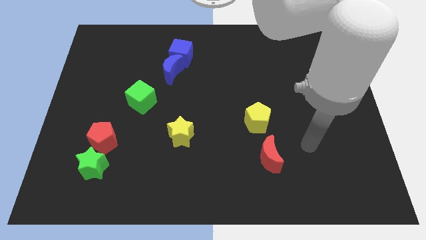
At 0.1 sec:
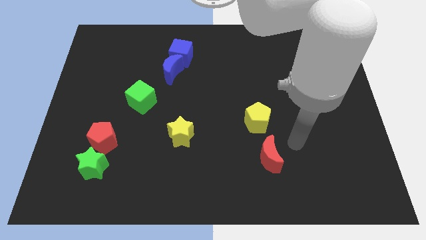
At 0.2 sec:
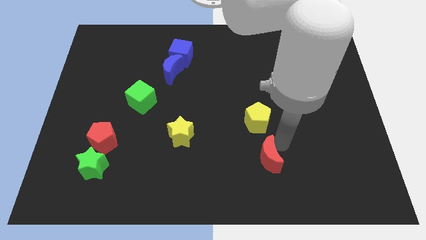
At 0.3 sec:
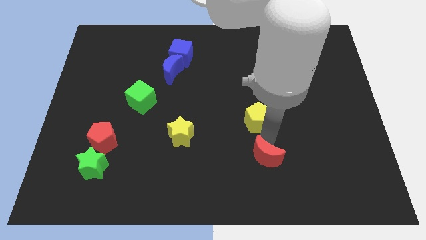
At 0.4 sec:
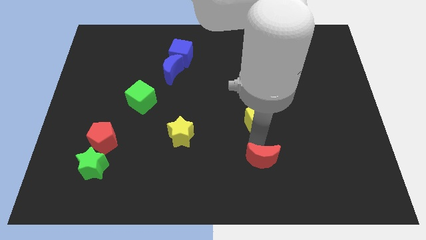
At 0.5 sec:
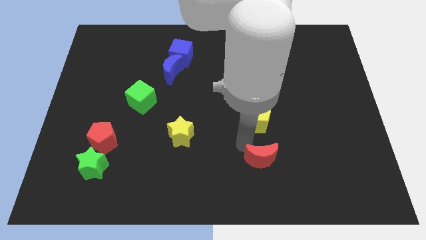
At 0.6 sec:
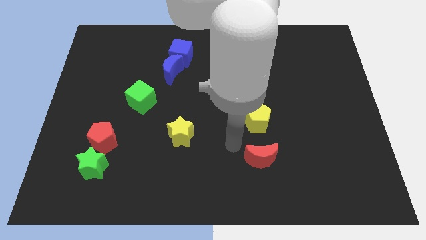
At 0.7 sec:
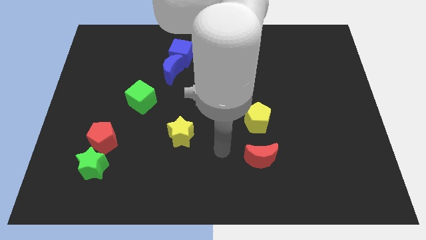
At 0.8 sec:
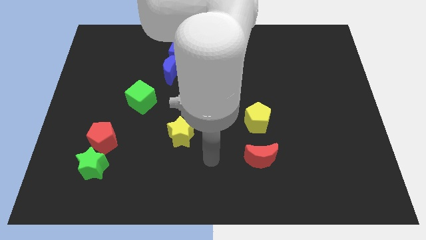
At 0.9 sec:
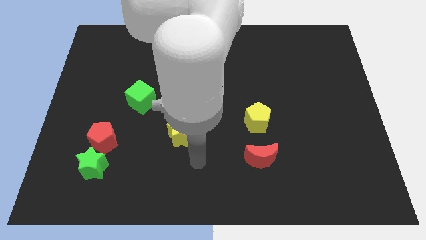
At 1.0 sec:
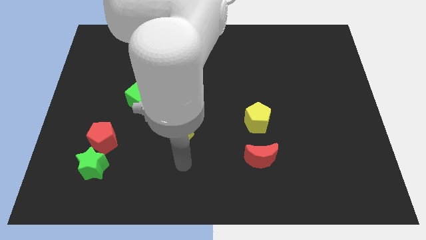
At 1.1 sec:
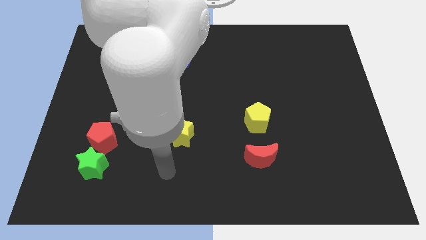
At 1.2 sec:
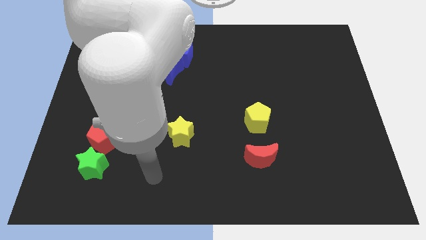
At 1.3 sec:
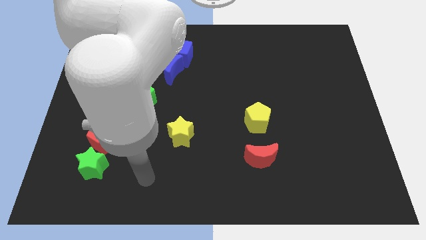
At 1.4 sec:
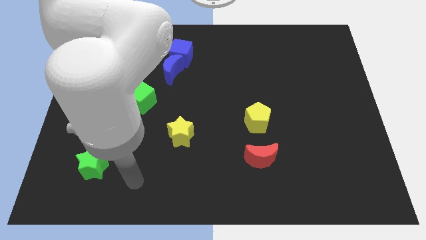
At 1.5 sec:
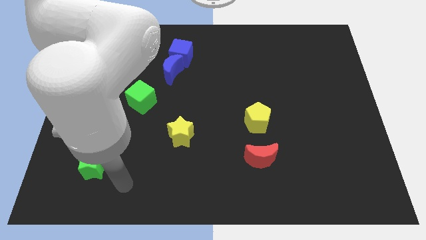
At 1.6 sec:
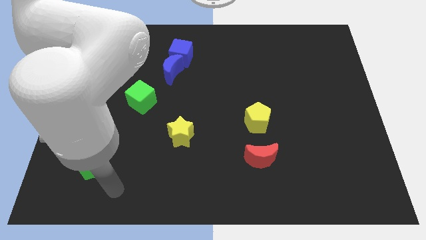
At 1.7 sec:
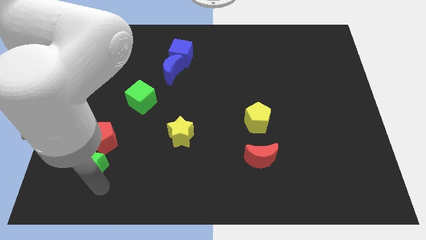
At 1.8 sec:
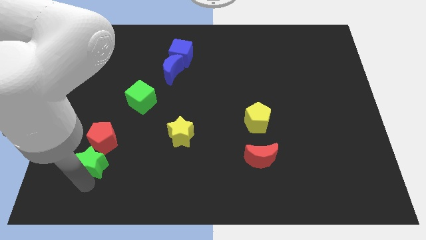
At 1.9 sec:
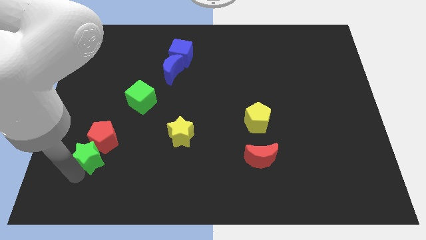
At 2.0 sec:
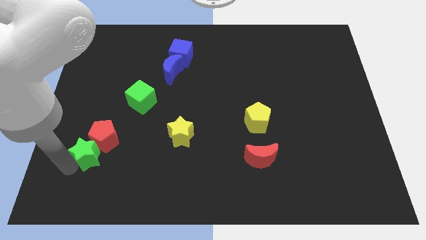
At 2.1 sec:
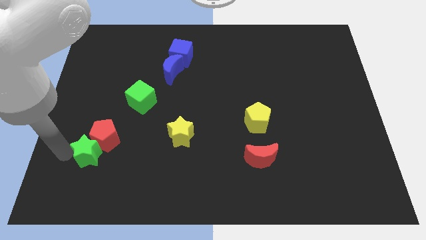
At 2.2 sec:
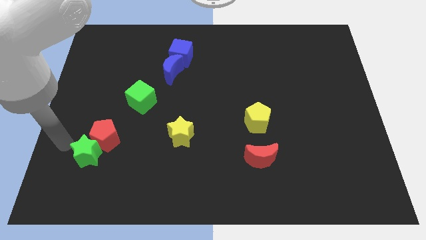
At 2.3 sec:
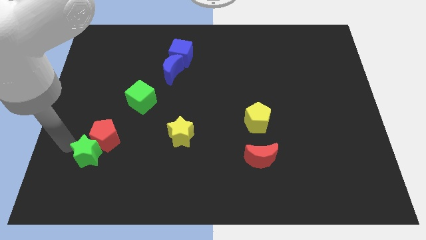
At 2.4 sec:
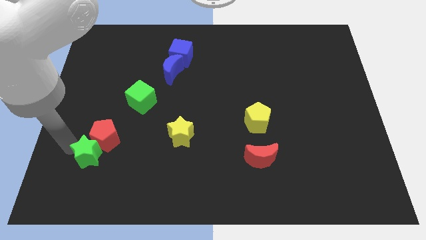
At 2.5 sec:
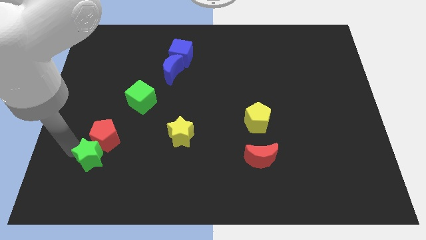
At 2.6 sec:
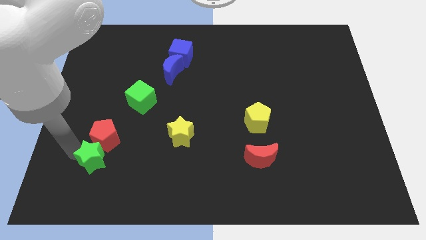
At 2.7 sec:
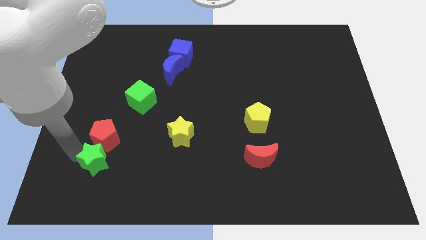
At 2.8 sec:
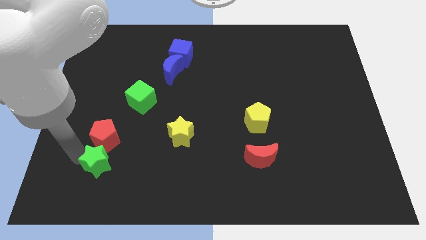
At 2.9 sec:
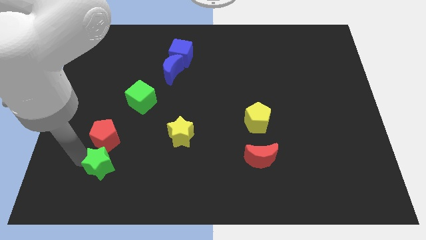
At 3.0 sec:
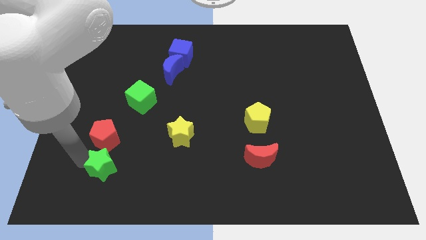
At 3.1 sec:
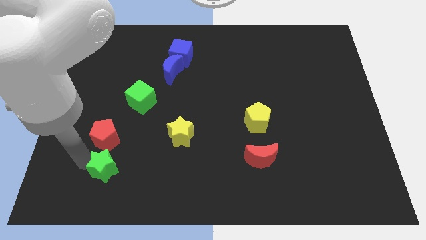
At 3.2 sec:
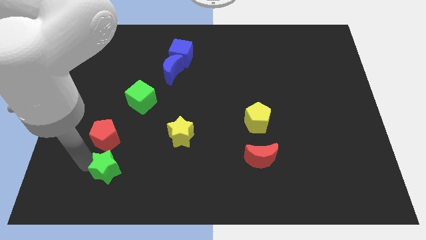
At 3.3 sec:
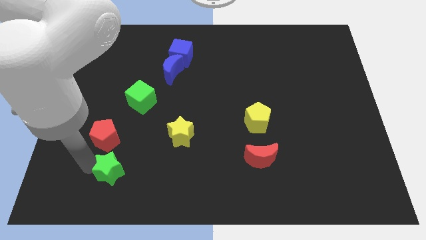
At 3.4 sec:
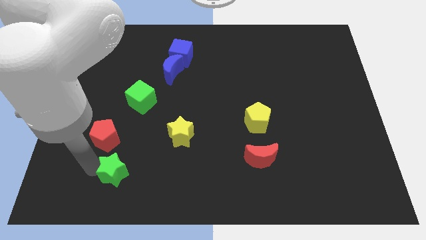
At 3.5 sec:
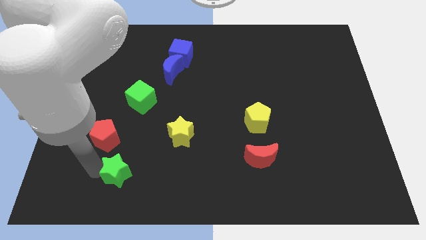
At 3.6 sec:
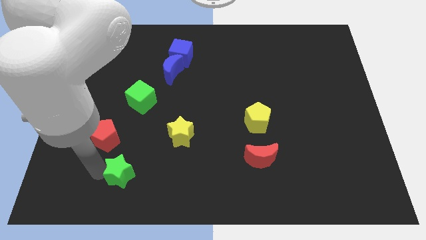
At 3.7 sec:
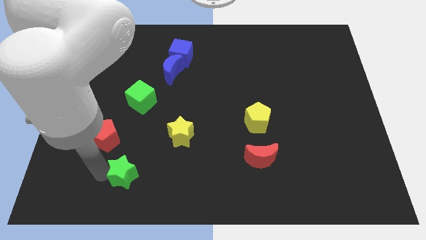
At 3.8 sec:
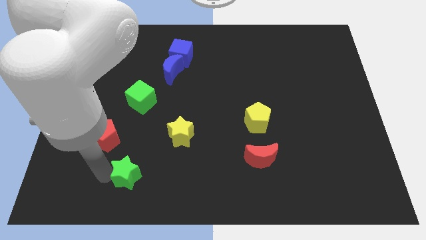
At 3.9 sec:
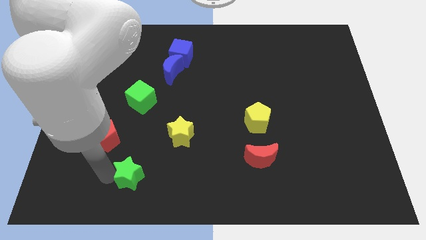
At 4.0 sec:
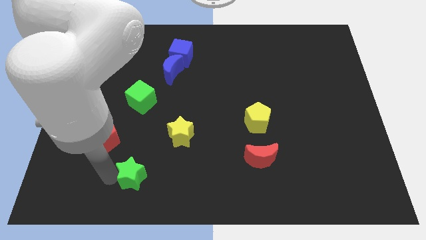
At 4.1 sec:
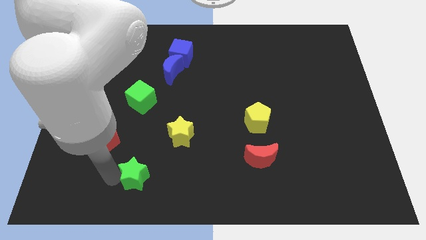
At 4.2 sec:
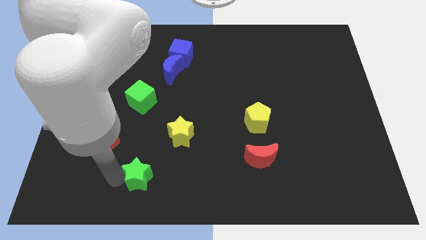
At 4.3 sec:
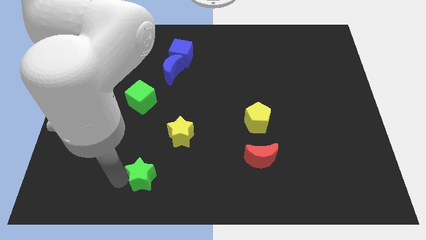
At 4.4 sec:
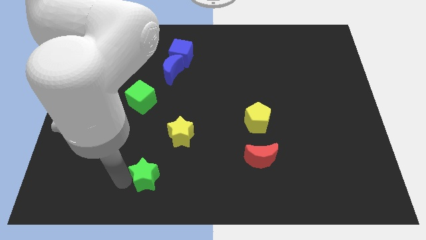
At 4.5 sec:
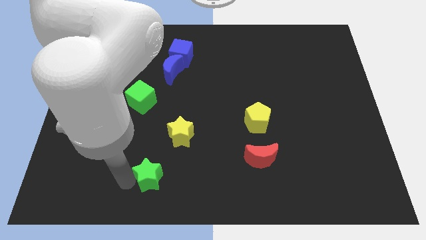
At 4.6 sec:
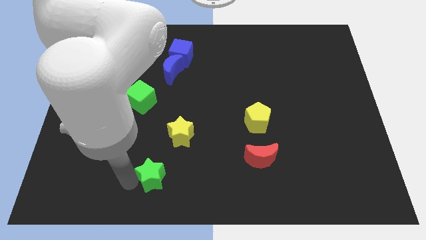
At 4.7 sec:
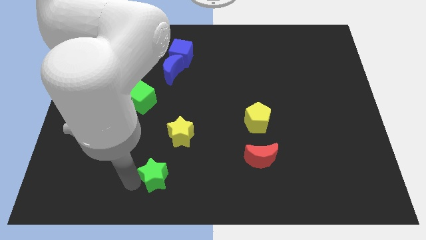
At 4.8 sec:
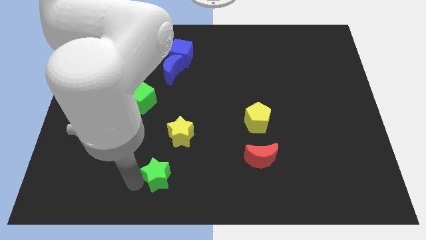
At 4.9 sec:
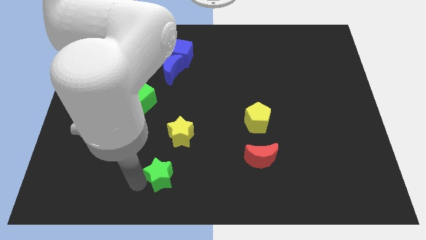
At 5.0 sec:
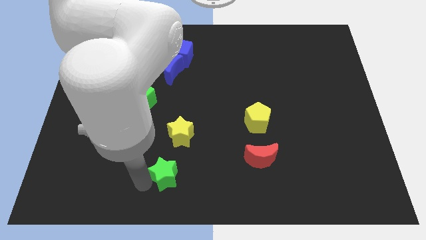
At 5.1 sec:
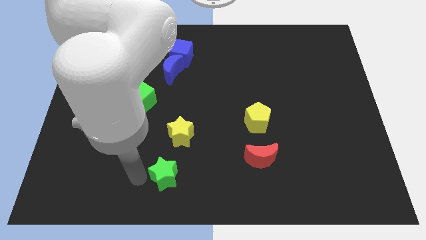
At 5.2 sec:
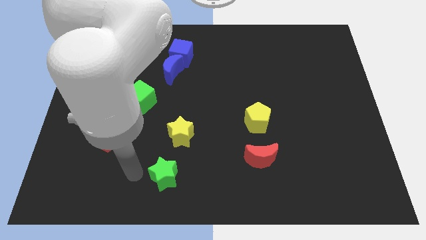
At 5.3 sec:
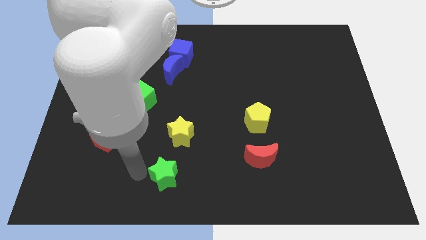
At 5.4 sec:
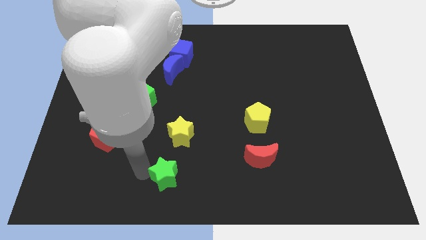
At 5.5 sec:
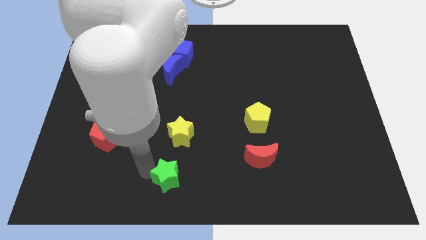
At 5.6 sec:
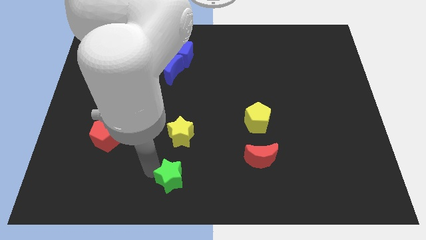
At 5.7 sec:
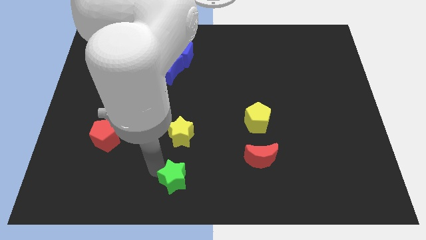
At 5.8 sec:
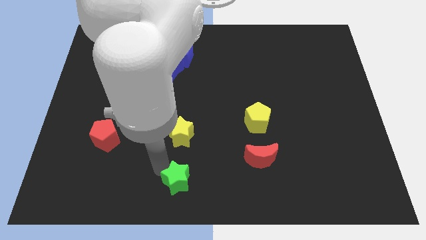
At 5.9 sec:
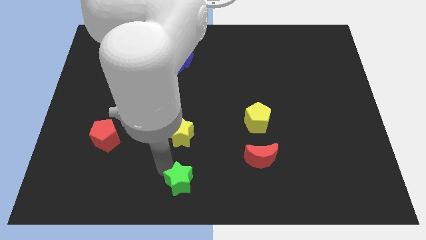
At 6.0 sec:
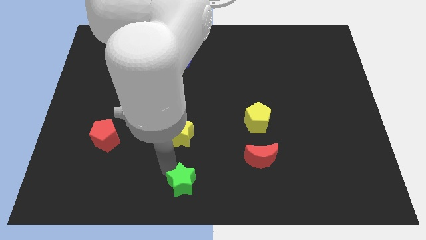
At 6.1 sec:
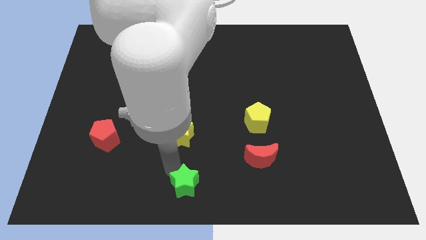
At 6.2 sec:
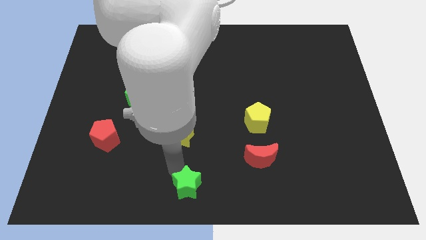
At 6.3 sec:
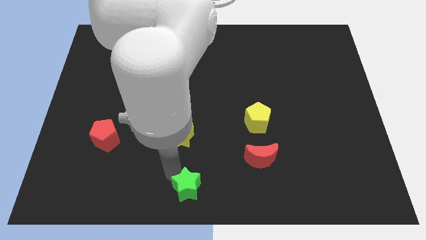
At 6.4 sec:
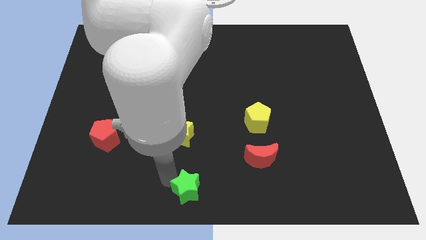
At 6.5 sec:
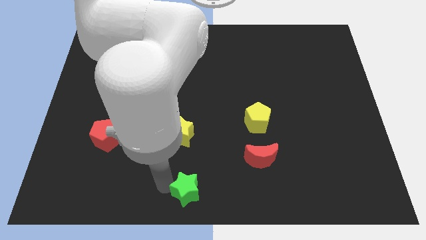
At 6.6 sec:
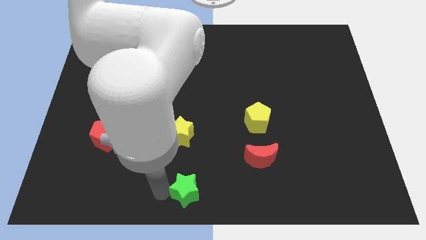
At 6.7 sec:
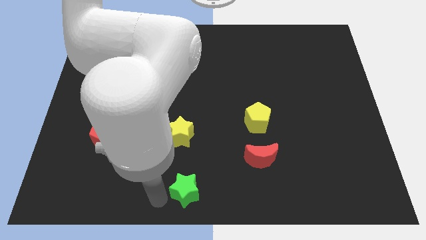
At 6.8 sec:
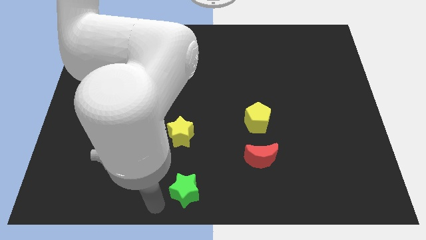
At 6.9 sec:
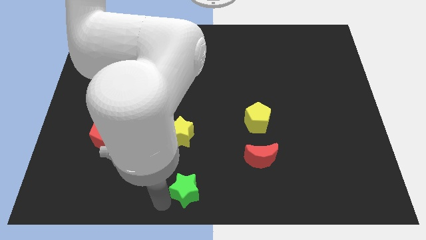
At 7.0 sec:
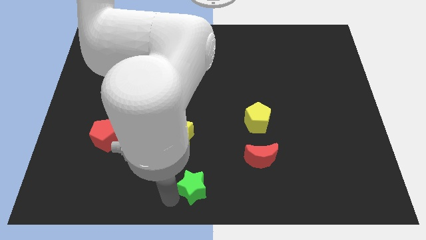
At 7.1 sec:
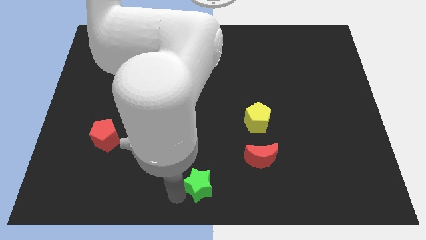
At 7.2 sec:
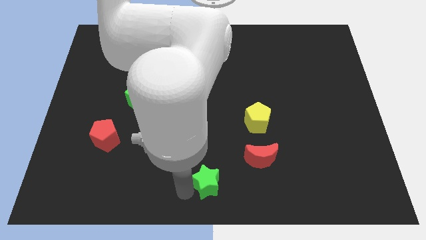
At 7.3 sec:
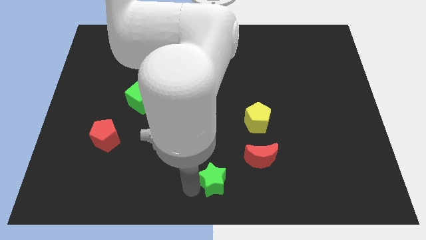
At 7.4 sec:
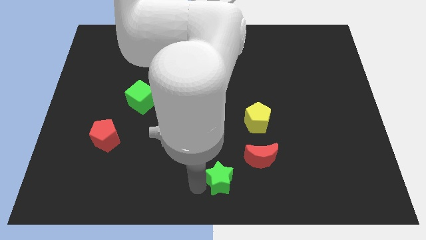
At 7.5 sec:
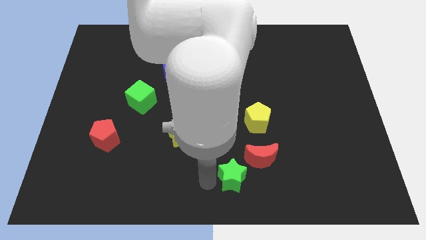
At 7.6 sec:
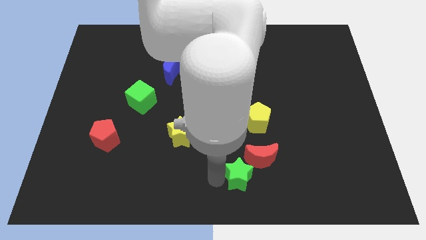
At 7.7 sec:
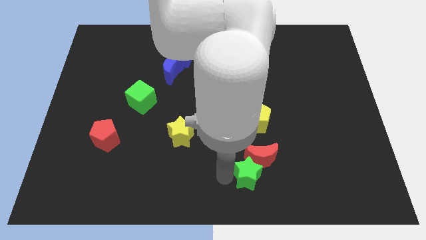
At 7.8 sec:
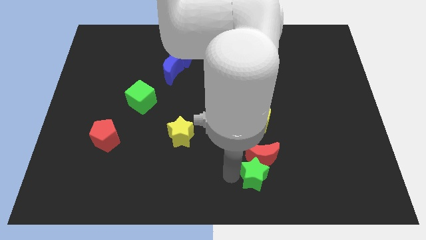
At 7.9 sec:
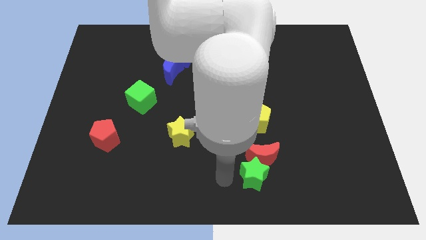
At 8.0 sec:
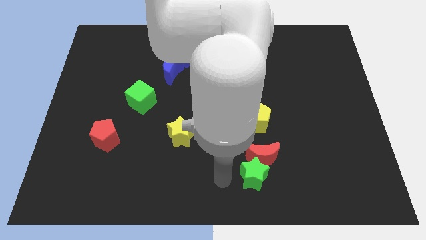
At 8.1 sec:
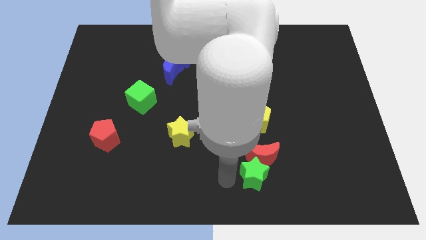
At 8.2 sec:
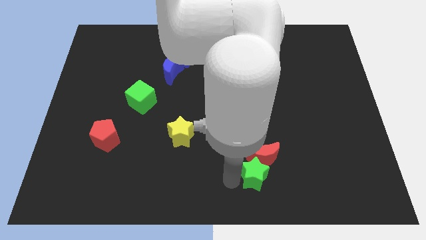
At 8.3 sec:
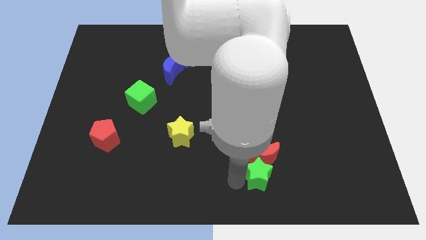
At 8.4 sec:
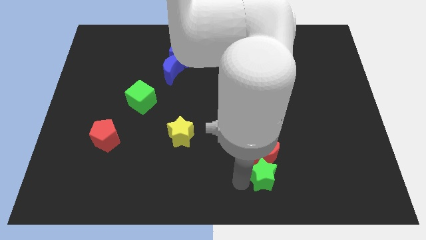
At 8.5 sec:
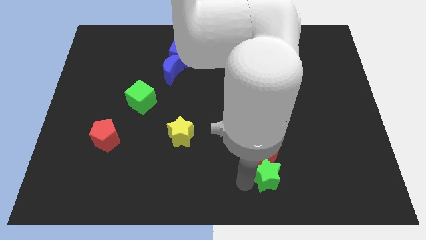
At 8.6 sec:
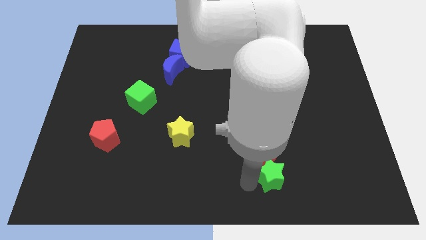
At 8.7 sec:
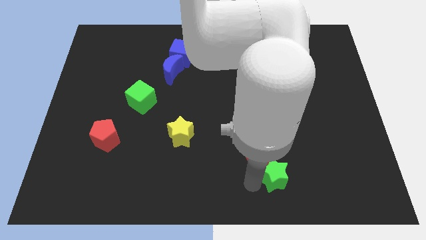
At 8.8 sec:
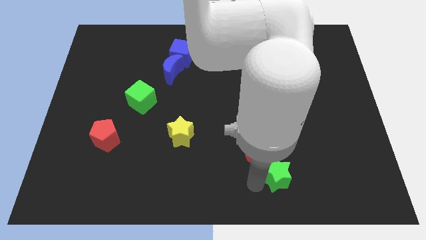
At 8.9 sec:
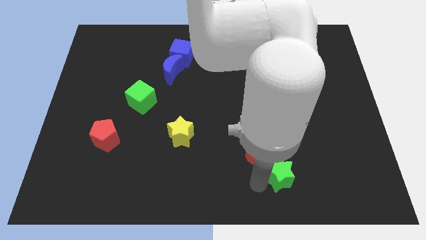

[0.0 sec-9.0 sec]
slide the green star just right of the red moon
